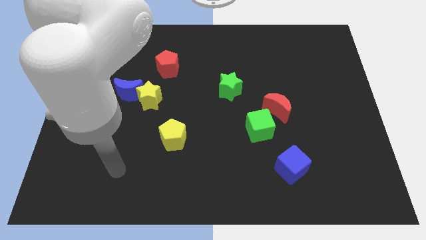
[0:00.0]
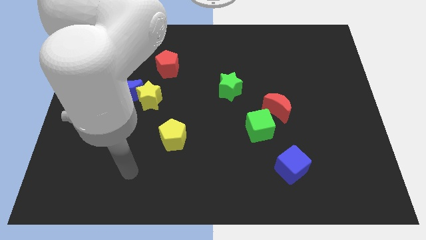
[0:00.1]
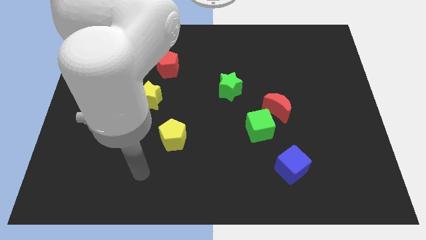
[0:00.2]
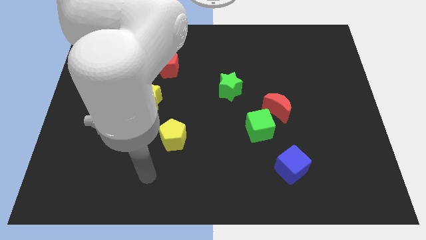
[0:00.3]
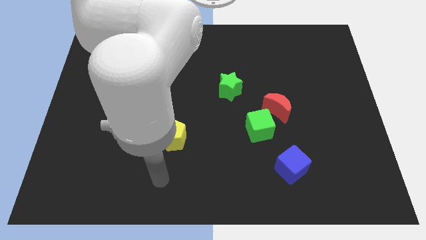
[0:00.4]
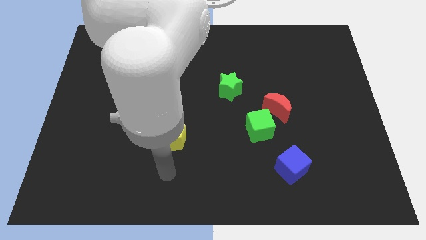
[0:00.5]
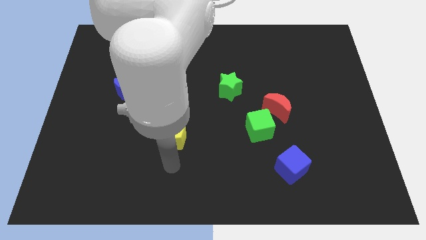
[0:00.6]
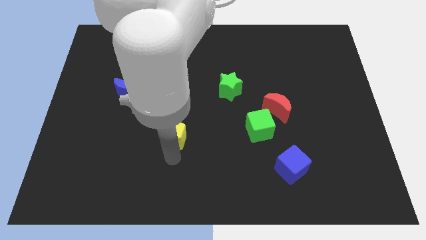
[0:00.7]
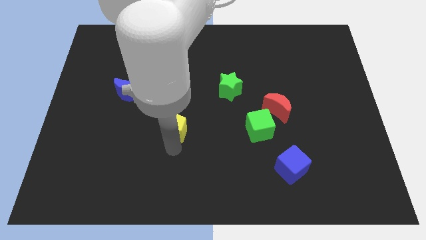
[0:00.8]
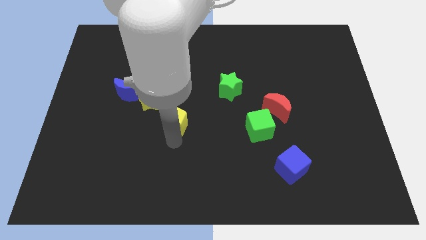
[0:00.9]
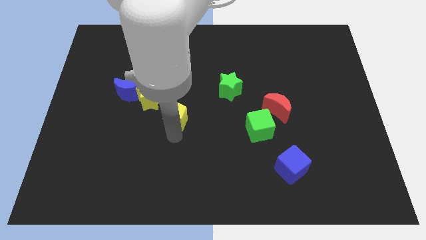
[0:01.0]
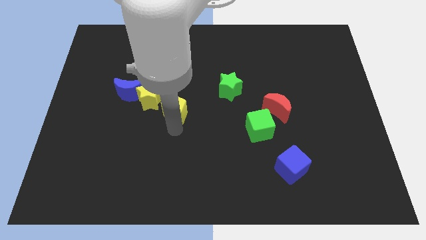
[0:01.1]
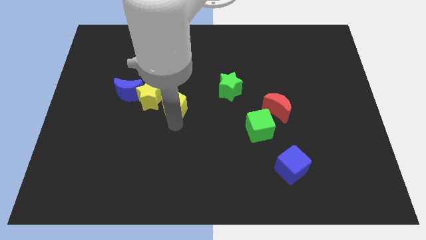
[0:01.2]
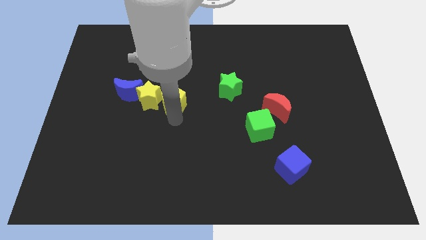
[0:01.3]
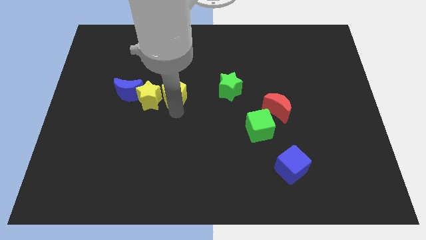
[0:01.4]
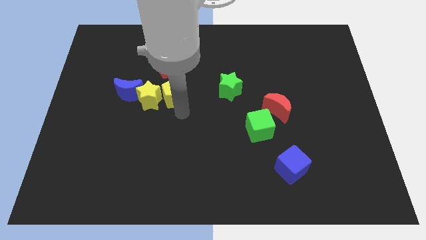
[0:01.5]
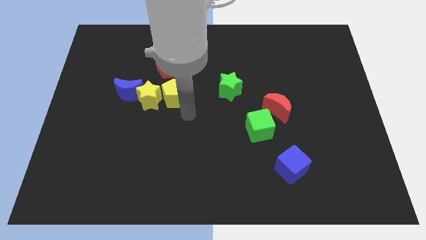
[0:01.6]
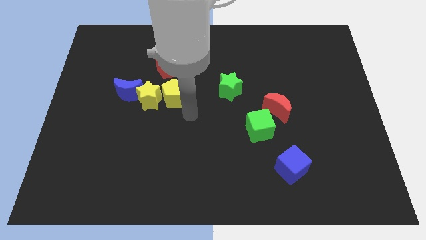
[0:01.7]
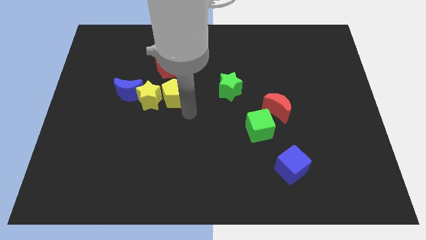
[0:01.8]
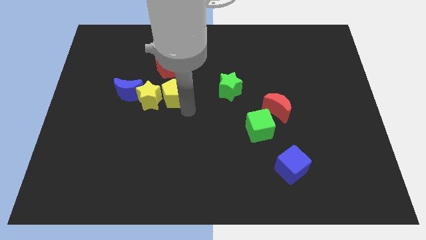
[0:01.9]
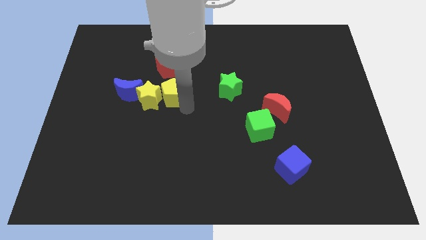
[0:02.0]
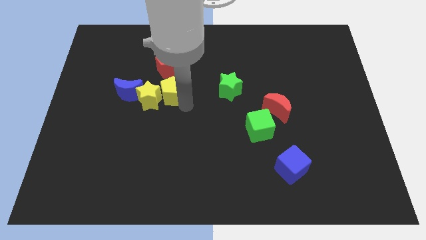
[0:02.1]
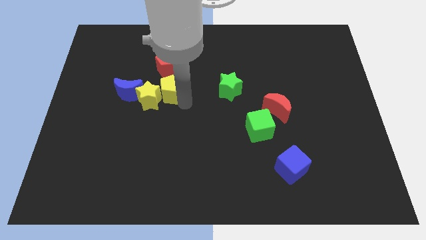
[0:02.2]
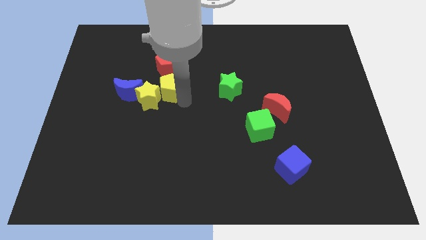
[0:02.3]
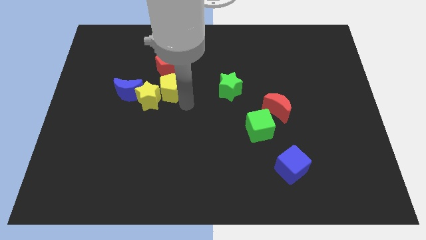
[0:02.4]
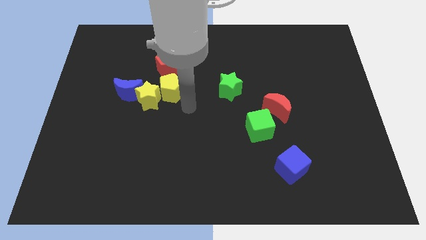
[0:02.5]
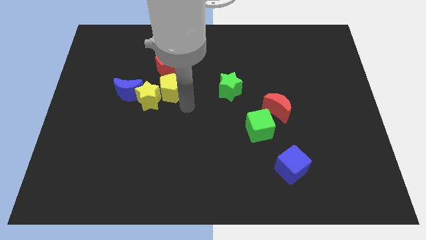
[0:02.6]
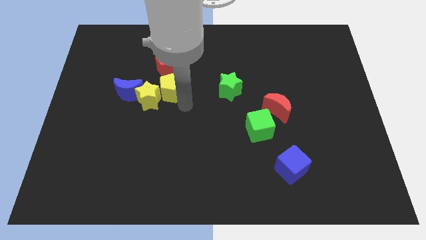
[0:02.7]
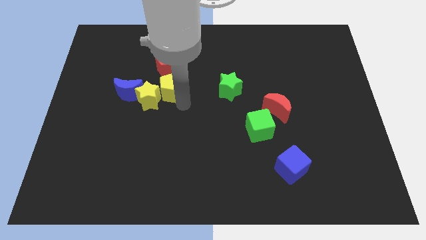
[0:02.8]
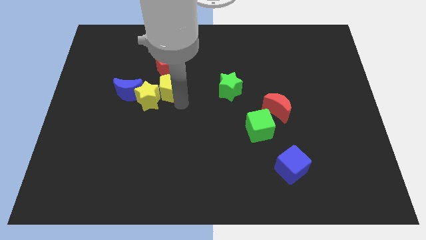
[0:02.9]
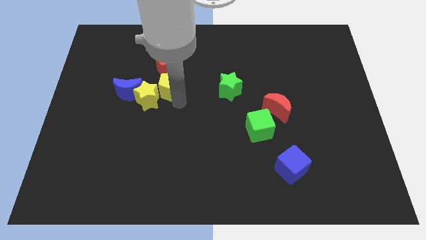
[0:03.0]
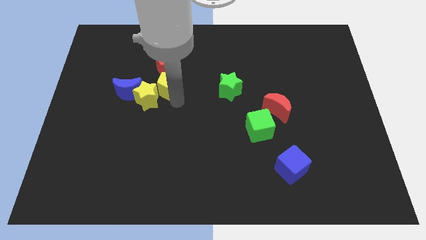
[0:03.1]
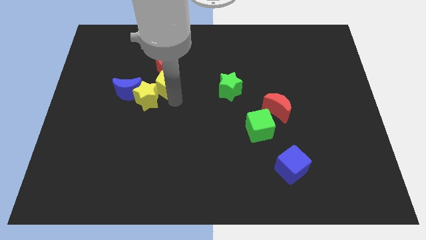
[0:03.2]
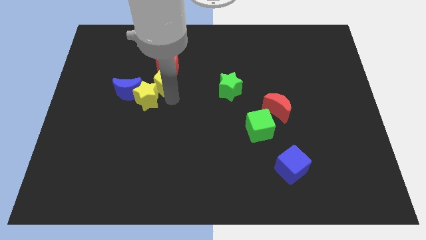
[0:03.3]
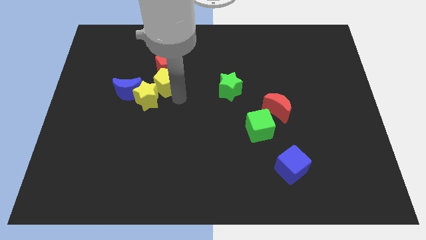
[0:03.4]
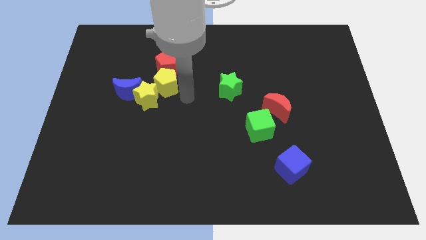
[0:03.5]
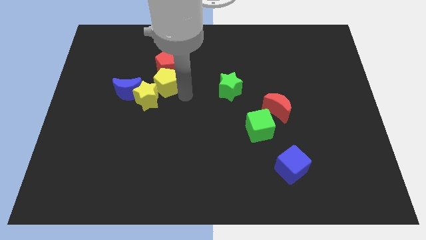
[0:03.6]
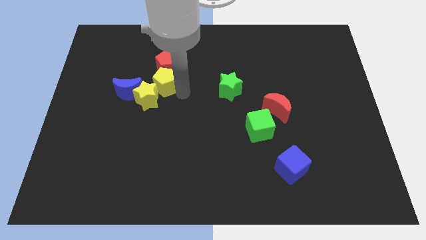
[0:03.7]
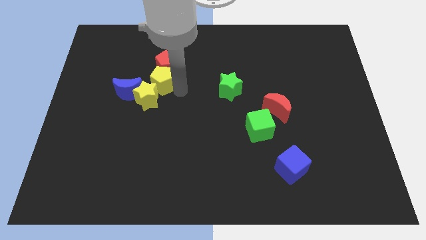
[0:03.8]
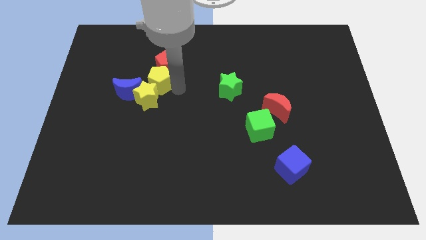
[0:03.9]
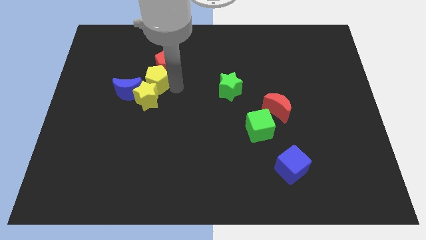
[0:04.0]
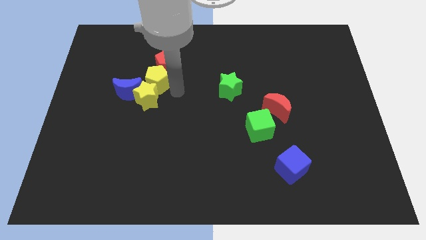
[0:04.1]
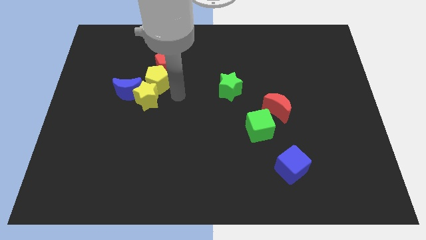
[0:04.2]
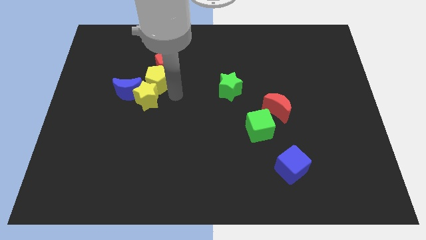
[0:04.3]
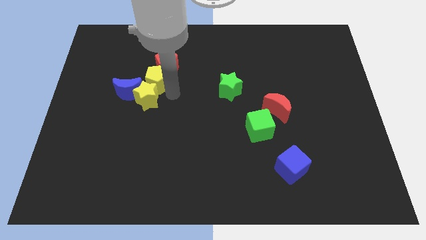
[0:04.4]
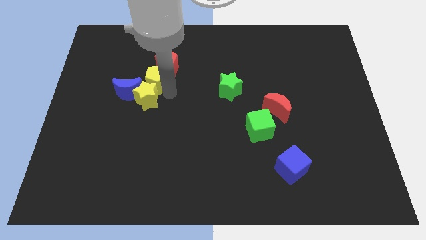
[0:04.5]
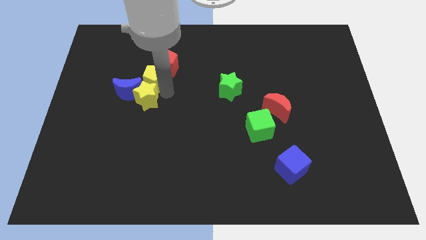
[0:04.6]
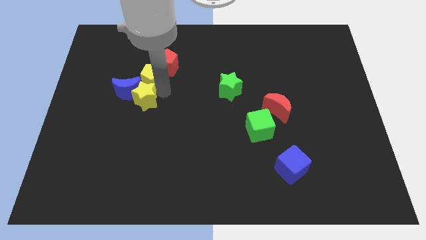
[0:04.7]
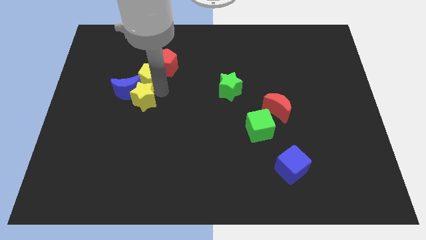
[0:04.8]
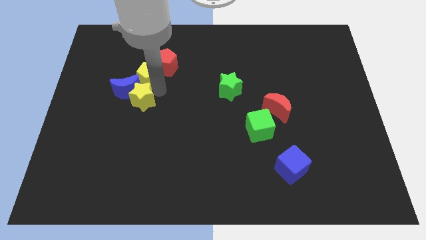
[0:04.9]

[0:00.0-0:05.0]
slide the yellow pentagon left of the red pentagon

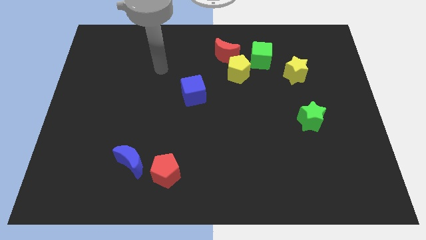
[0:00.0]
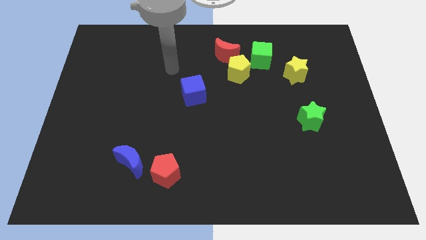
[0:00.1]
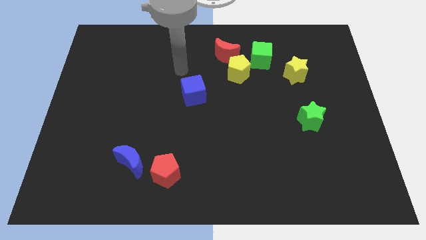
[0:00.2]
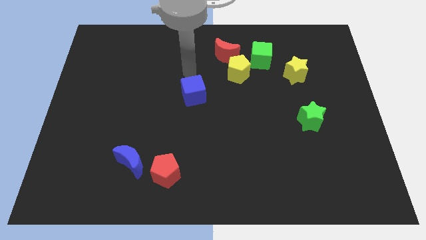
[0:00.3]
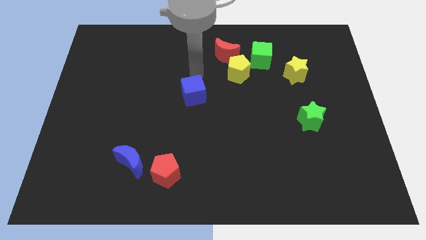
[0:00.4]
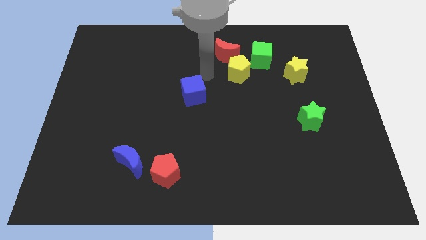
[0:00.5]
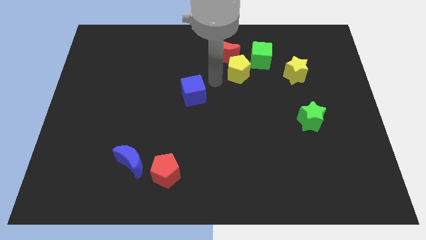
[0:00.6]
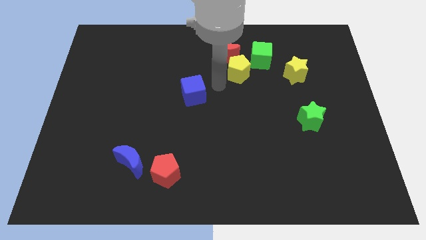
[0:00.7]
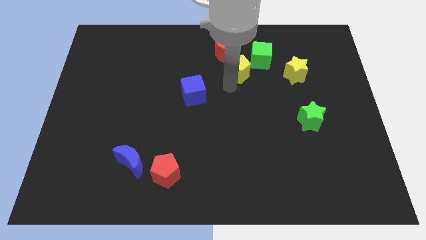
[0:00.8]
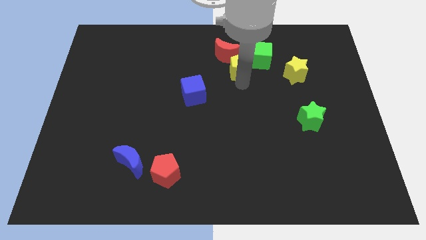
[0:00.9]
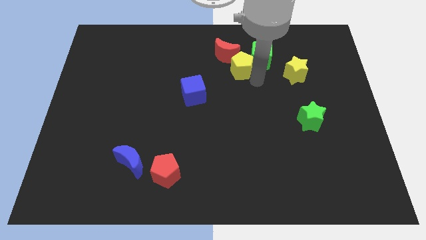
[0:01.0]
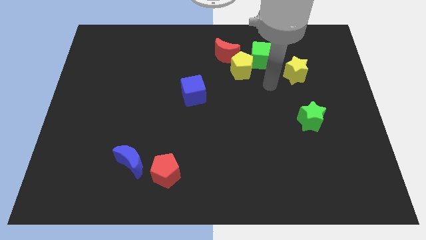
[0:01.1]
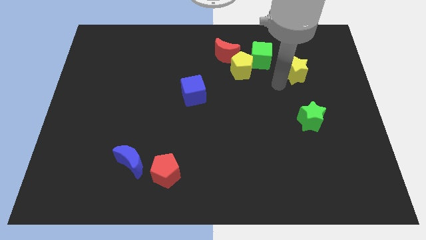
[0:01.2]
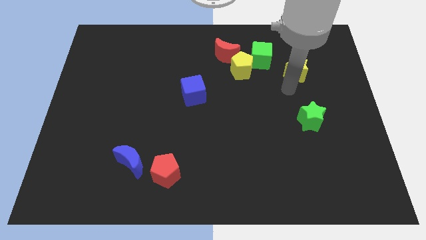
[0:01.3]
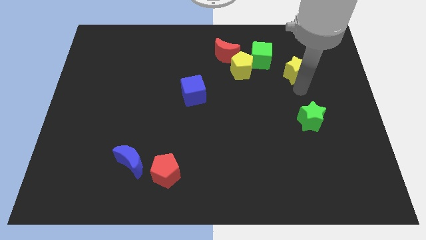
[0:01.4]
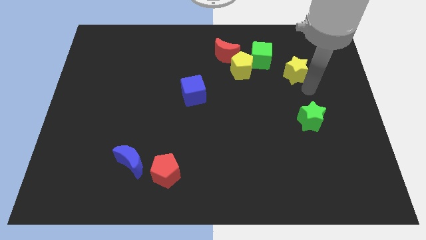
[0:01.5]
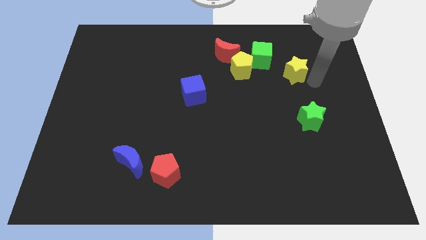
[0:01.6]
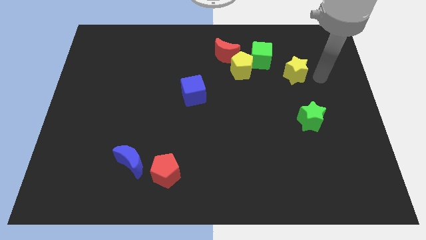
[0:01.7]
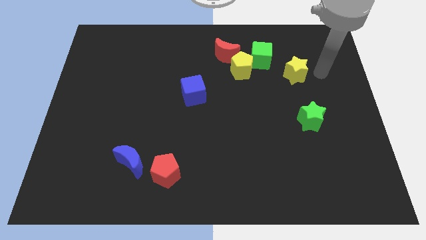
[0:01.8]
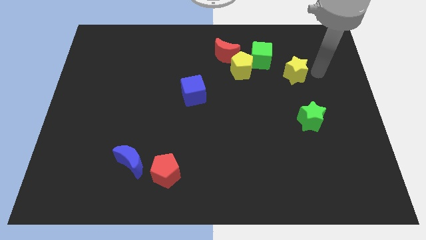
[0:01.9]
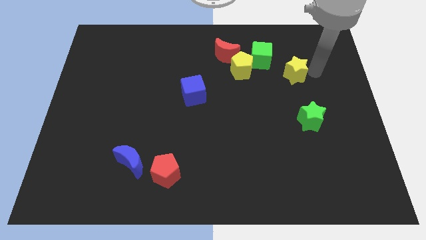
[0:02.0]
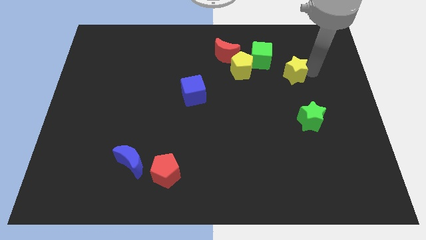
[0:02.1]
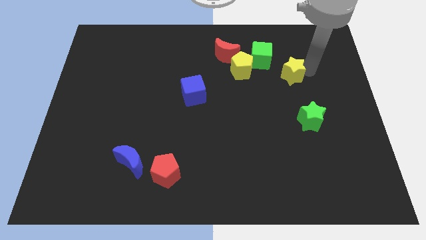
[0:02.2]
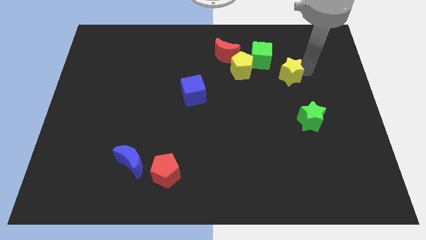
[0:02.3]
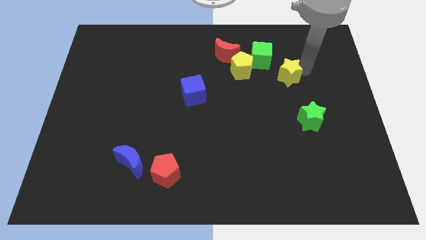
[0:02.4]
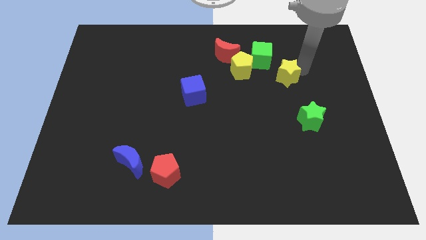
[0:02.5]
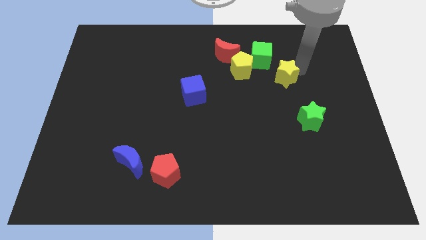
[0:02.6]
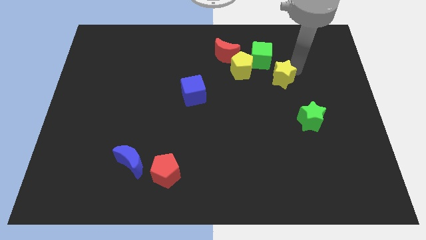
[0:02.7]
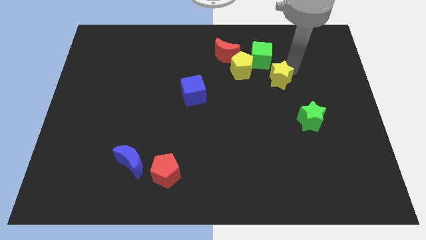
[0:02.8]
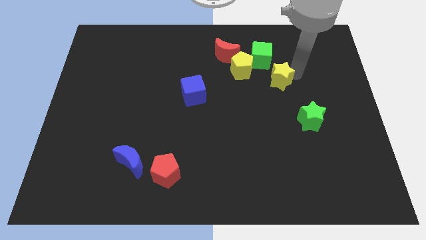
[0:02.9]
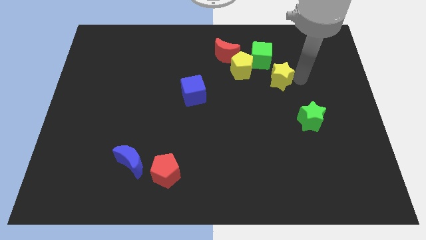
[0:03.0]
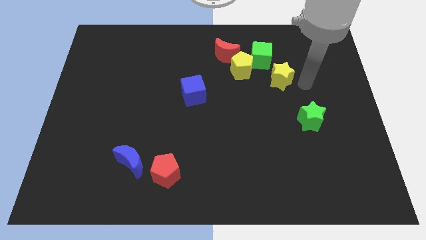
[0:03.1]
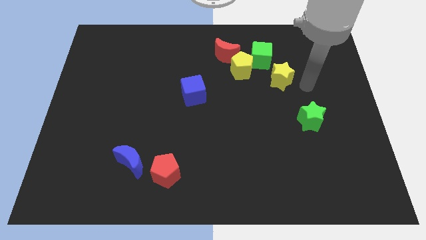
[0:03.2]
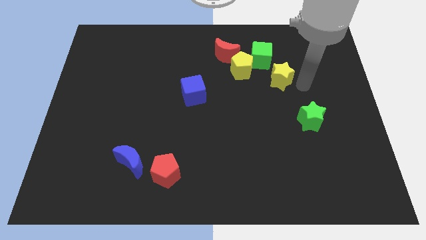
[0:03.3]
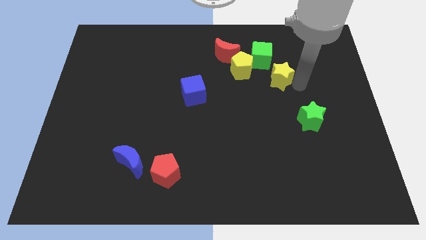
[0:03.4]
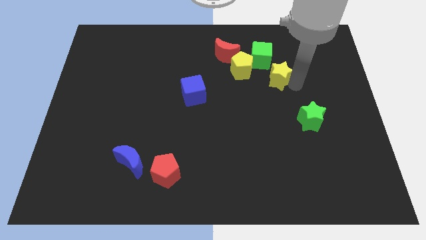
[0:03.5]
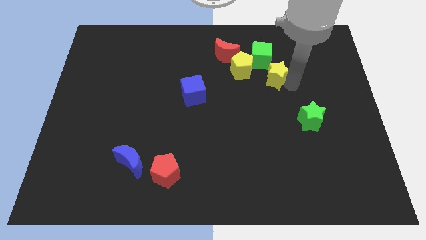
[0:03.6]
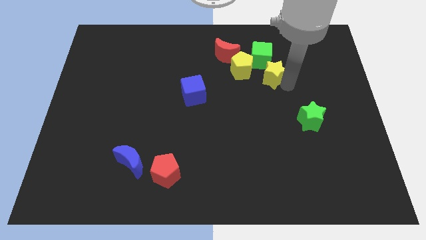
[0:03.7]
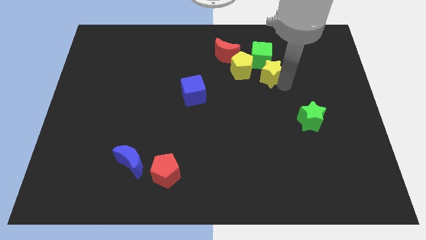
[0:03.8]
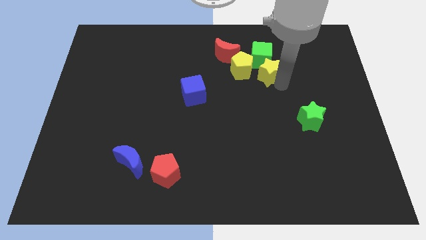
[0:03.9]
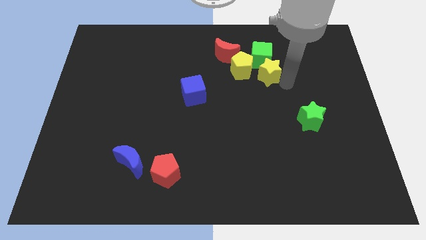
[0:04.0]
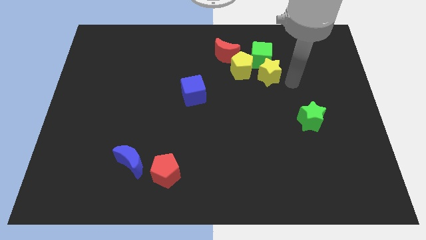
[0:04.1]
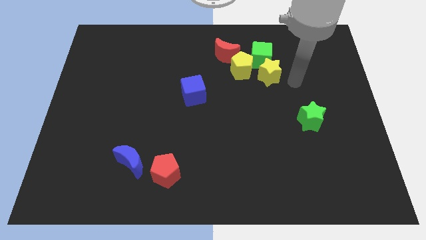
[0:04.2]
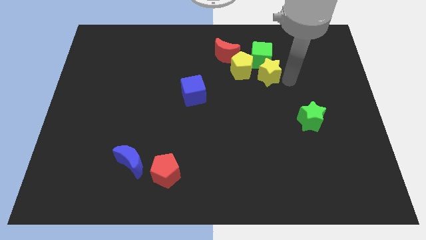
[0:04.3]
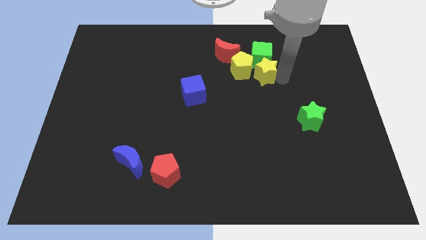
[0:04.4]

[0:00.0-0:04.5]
put the yellow star to the bottom right side of the red moon
